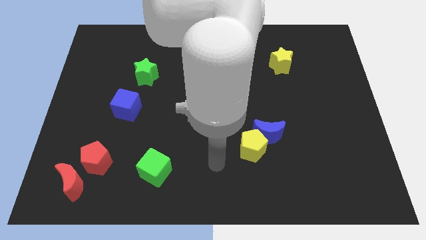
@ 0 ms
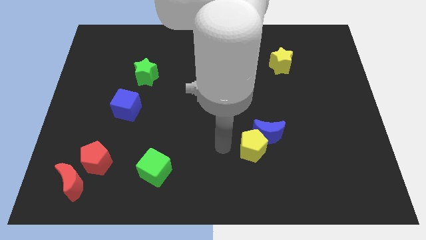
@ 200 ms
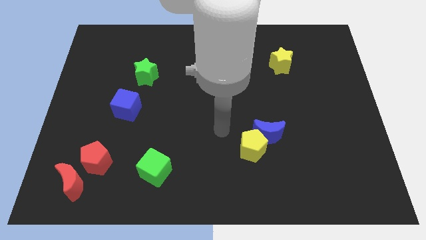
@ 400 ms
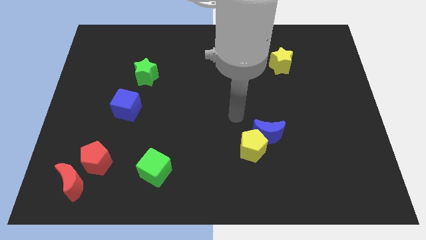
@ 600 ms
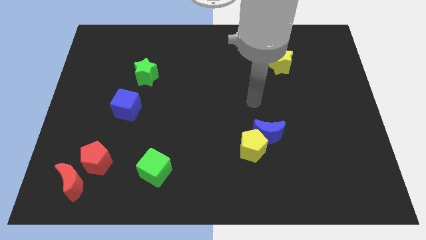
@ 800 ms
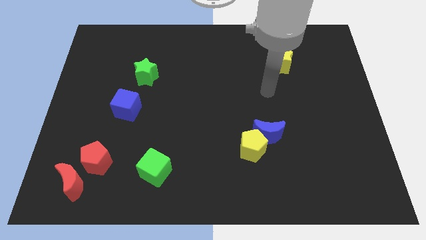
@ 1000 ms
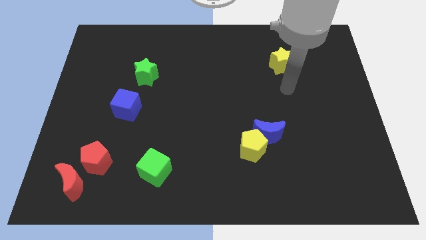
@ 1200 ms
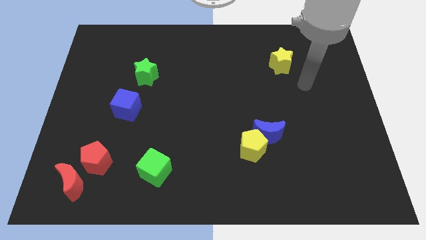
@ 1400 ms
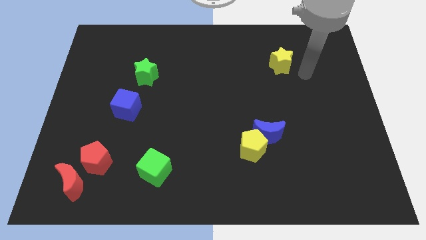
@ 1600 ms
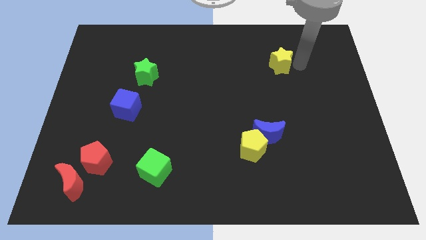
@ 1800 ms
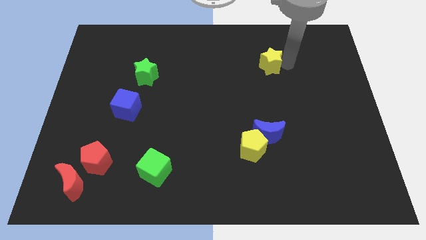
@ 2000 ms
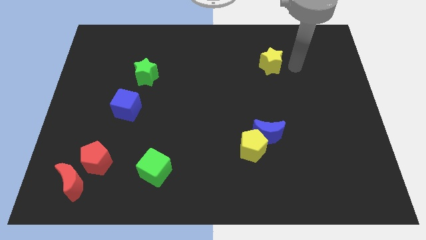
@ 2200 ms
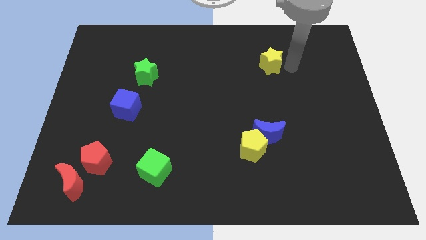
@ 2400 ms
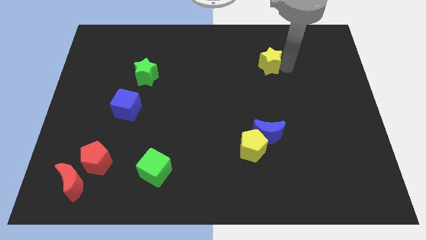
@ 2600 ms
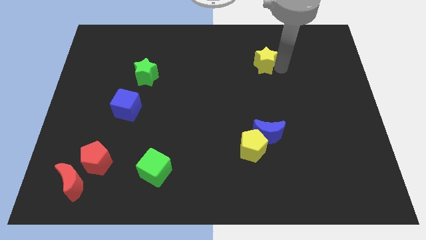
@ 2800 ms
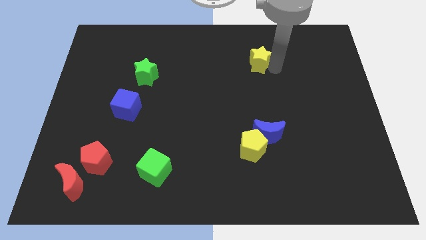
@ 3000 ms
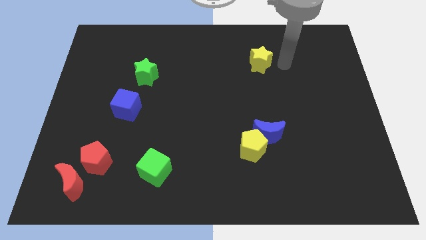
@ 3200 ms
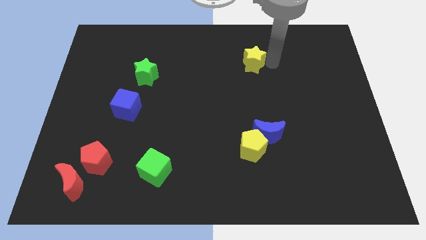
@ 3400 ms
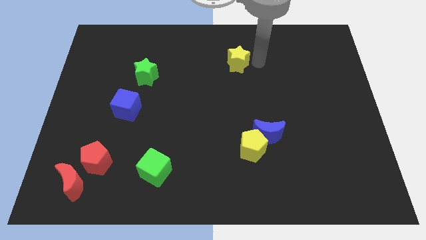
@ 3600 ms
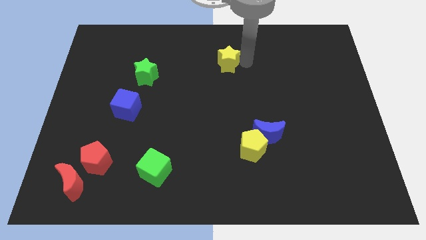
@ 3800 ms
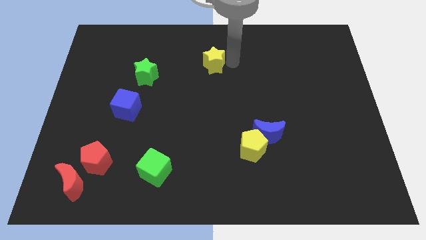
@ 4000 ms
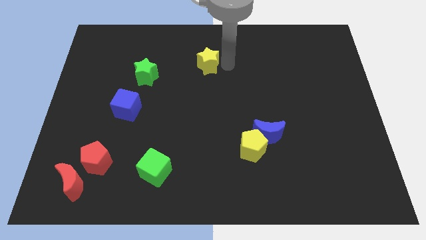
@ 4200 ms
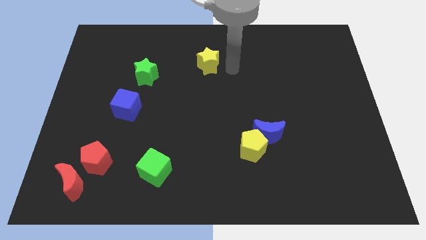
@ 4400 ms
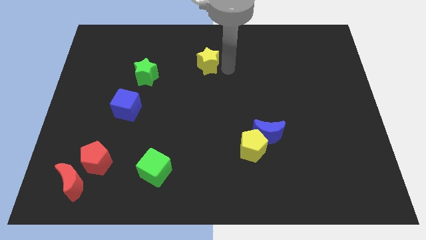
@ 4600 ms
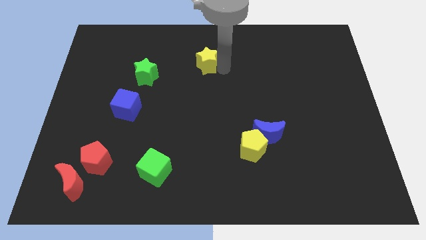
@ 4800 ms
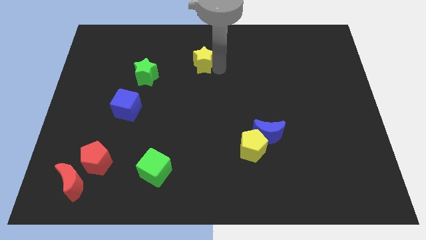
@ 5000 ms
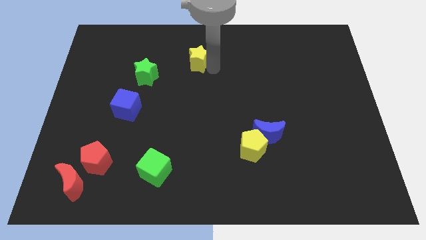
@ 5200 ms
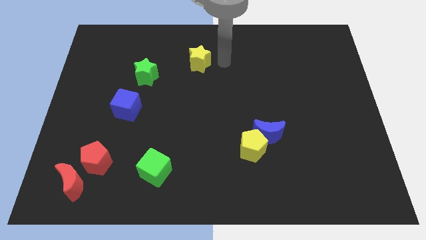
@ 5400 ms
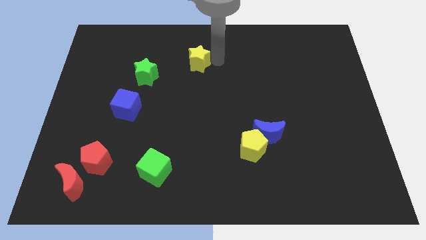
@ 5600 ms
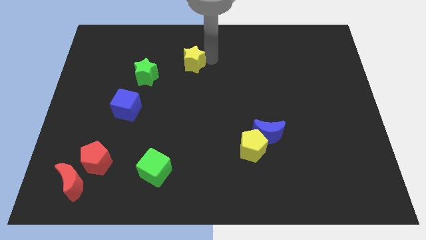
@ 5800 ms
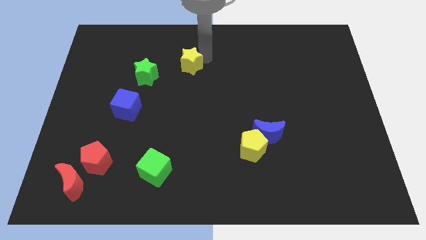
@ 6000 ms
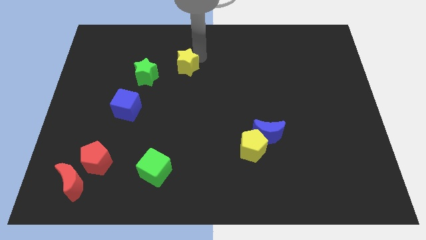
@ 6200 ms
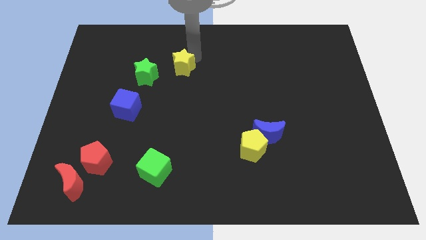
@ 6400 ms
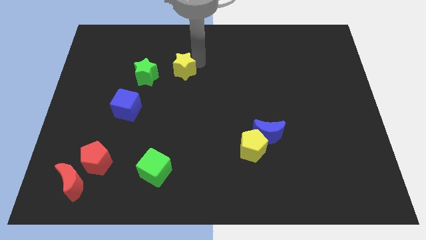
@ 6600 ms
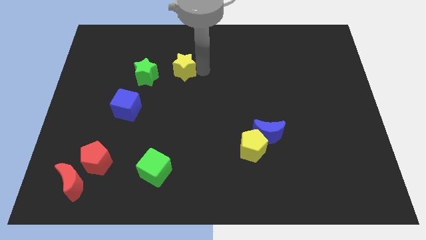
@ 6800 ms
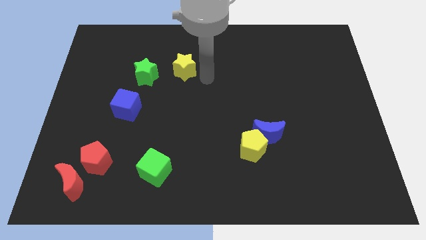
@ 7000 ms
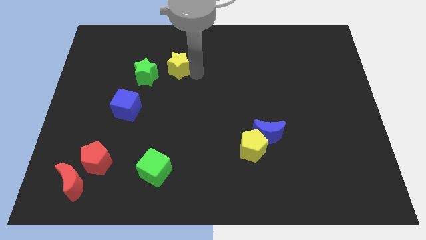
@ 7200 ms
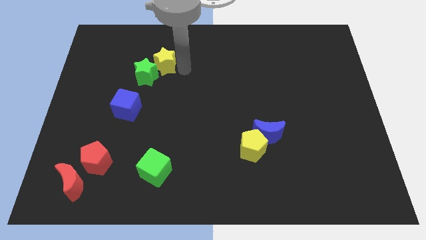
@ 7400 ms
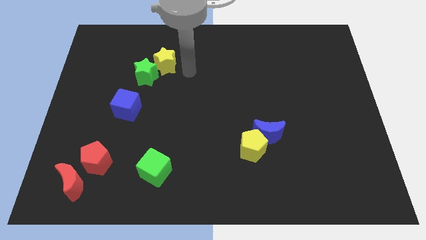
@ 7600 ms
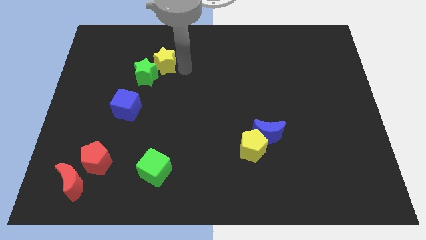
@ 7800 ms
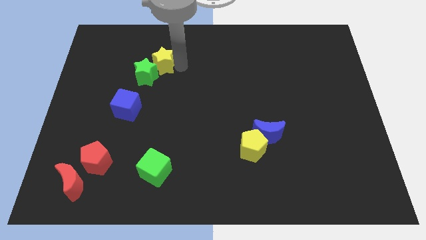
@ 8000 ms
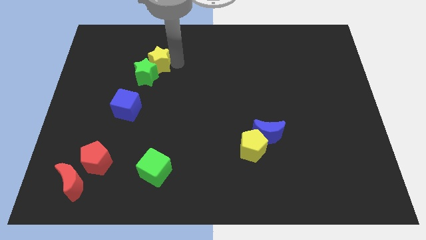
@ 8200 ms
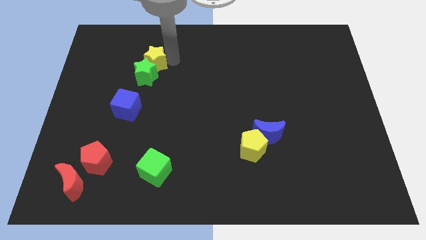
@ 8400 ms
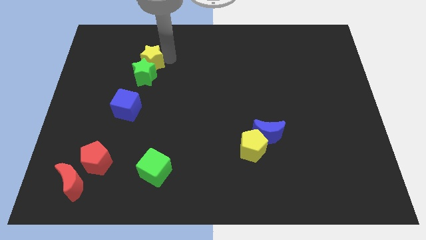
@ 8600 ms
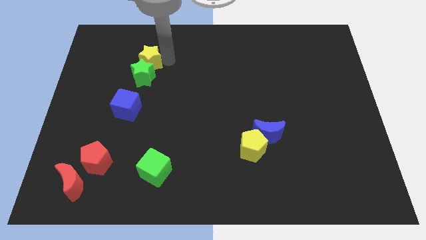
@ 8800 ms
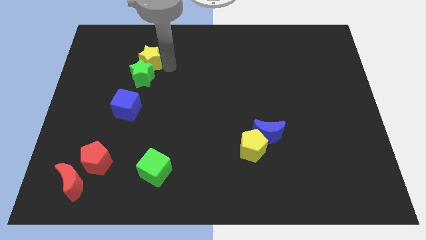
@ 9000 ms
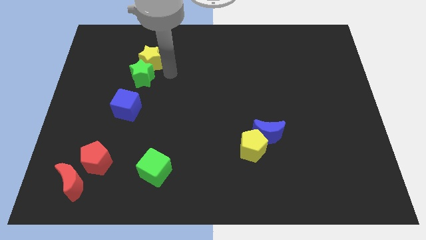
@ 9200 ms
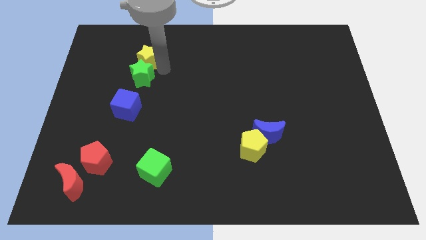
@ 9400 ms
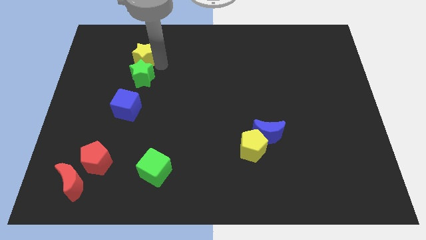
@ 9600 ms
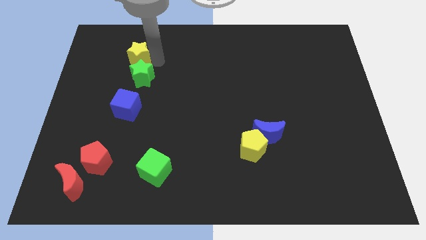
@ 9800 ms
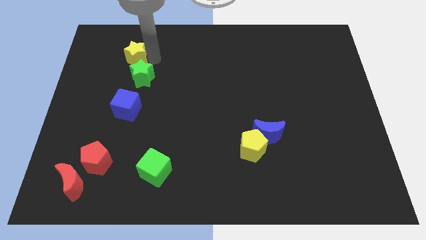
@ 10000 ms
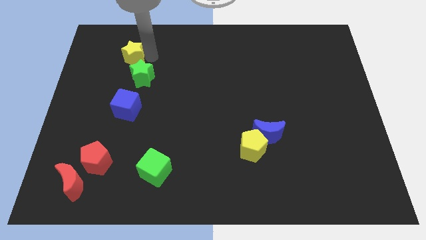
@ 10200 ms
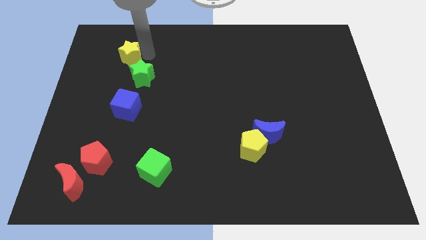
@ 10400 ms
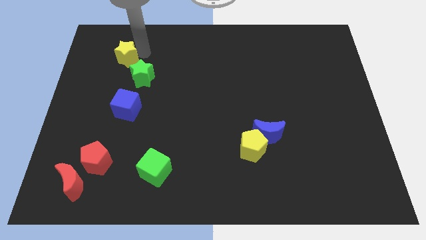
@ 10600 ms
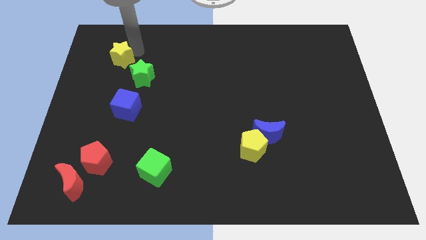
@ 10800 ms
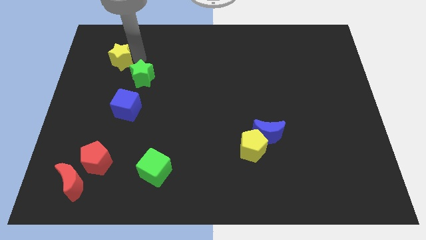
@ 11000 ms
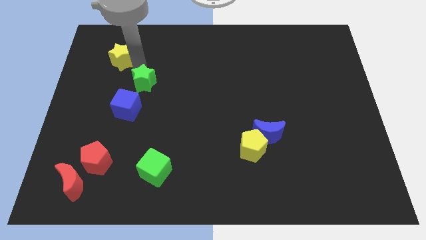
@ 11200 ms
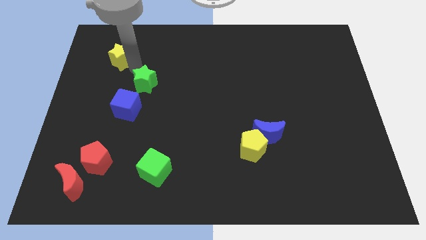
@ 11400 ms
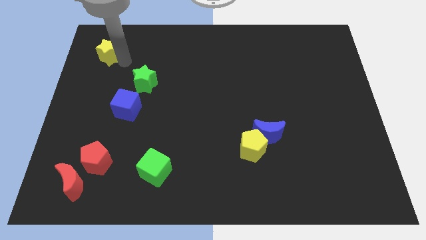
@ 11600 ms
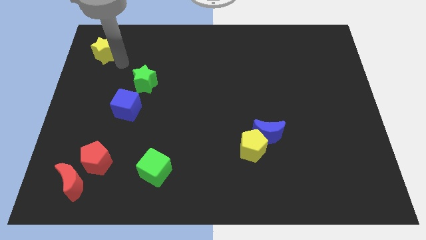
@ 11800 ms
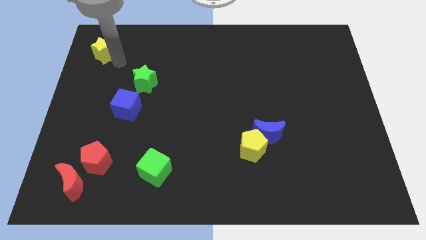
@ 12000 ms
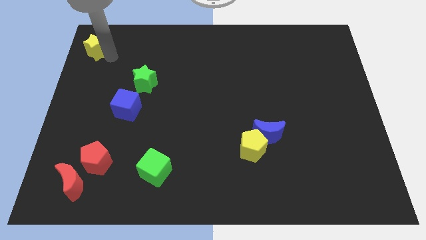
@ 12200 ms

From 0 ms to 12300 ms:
move the yellow star to the top left of the board

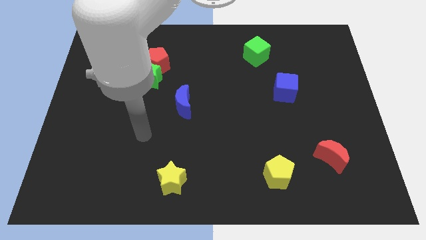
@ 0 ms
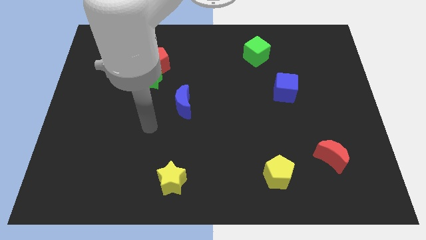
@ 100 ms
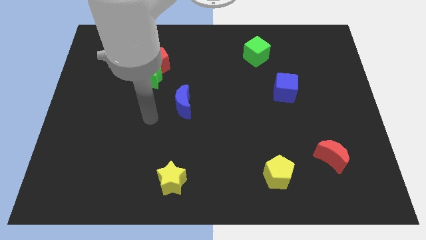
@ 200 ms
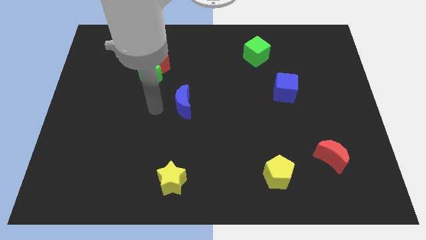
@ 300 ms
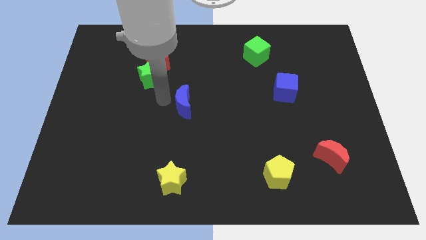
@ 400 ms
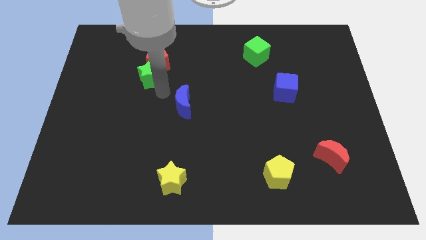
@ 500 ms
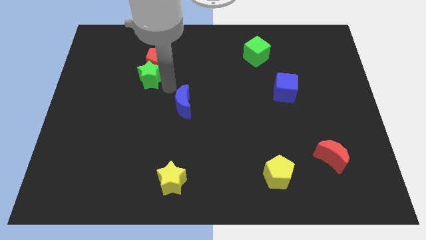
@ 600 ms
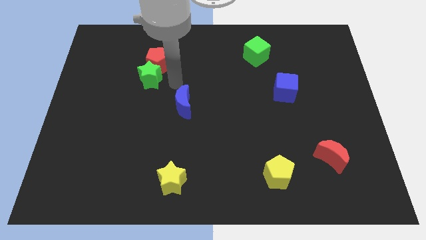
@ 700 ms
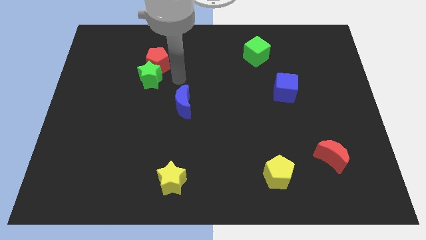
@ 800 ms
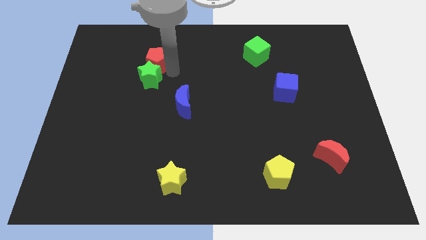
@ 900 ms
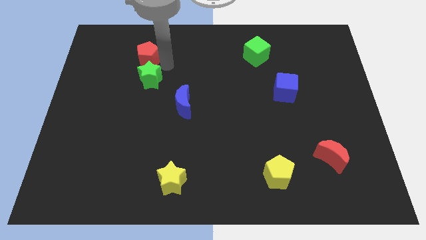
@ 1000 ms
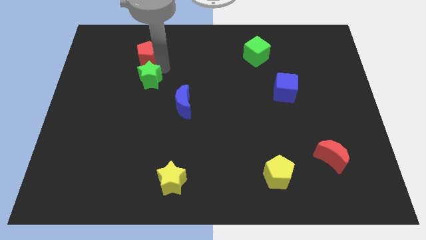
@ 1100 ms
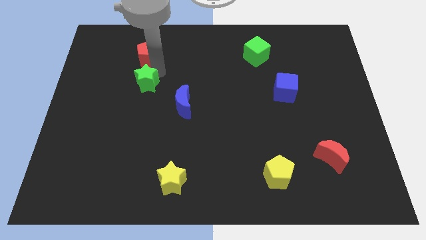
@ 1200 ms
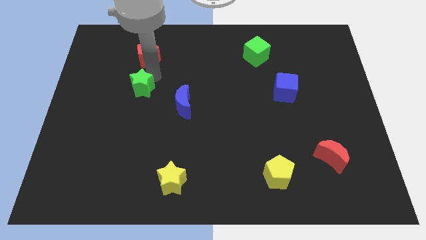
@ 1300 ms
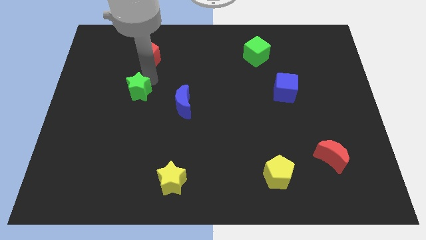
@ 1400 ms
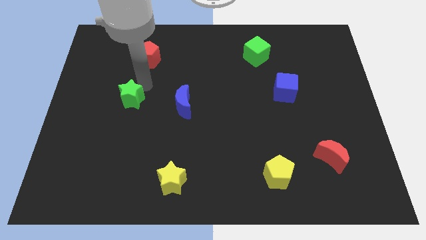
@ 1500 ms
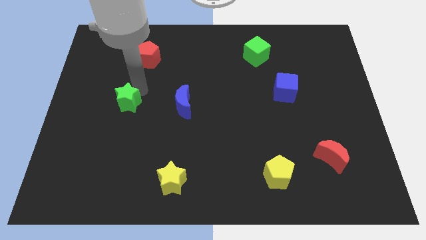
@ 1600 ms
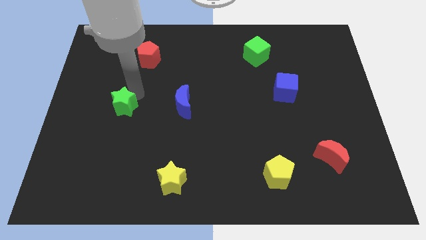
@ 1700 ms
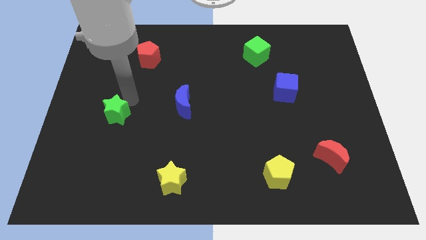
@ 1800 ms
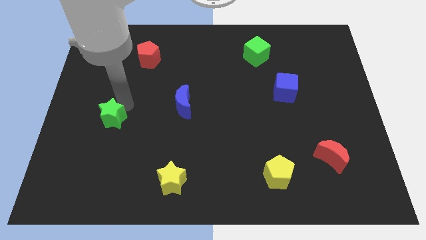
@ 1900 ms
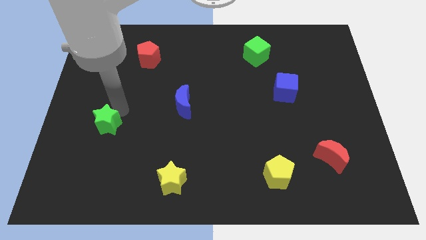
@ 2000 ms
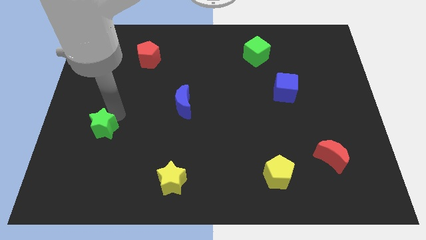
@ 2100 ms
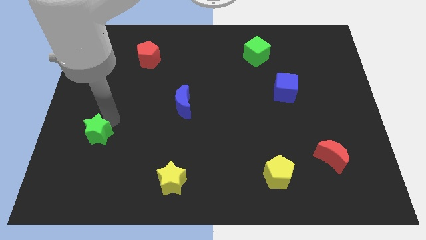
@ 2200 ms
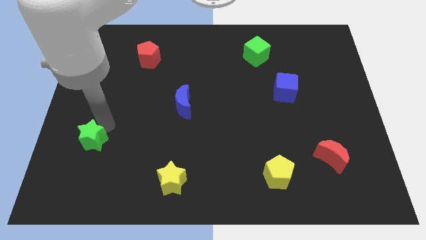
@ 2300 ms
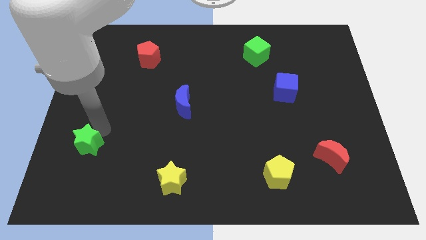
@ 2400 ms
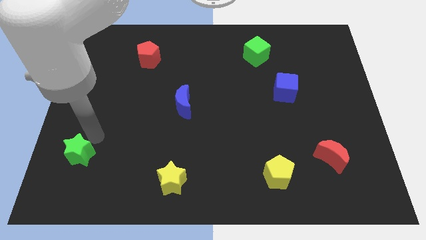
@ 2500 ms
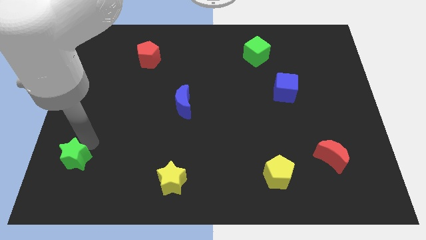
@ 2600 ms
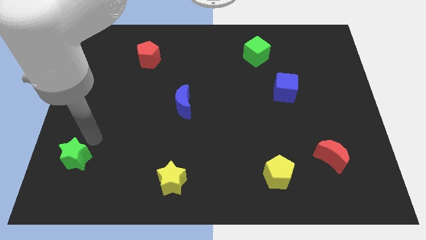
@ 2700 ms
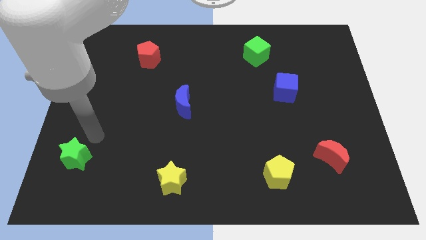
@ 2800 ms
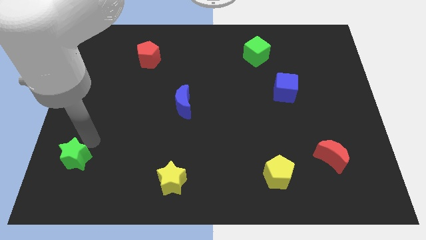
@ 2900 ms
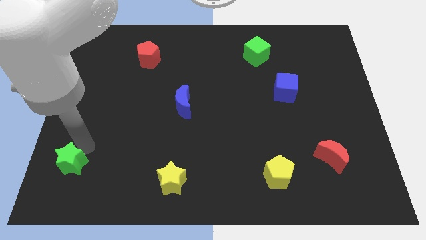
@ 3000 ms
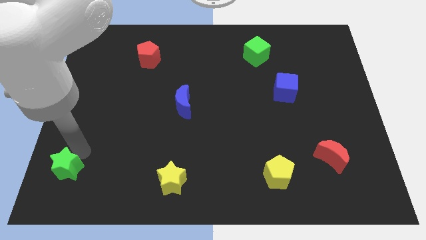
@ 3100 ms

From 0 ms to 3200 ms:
move the green star to the lower left corner
